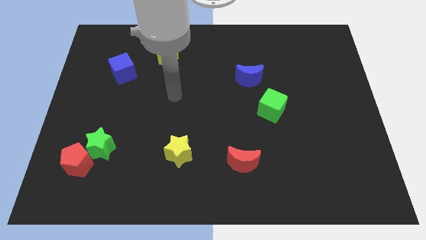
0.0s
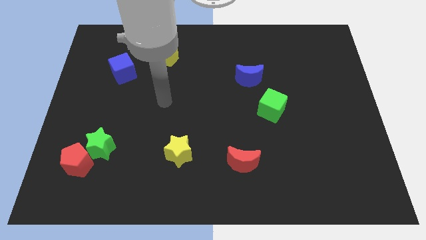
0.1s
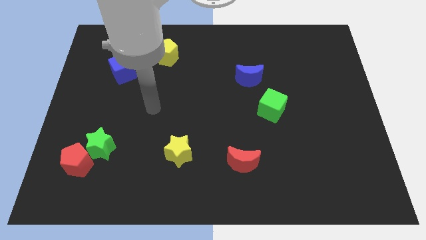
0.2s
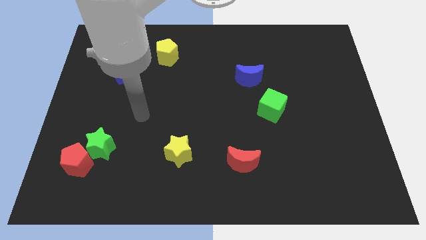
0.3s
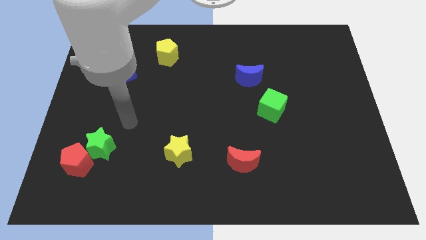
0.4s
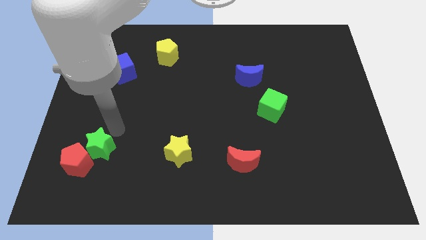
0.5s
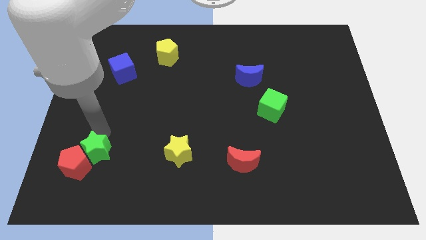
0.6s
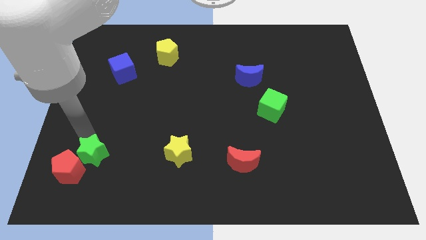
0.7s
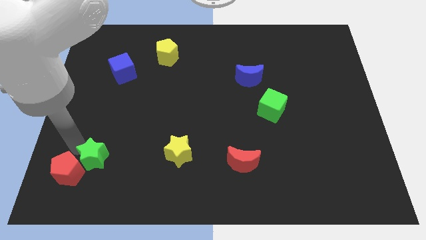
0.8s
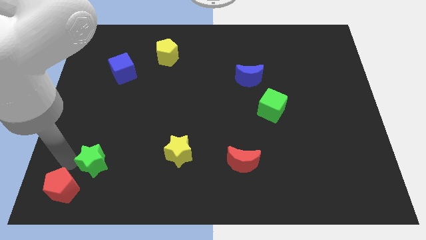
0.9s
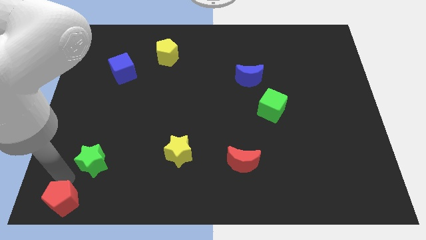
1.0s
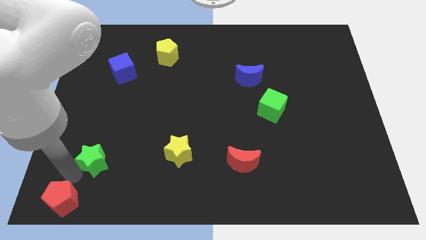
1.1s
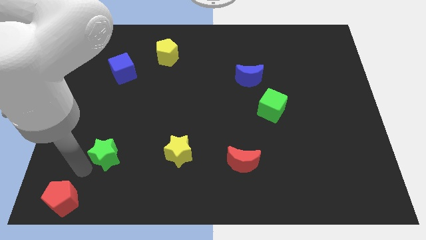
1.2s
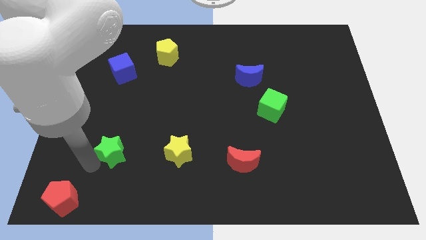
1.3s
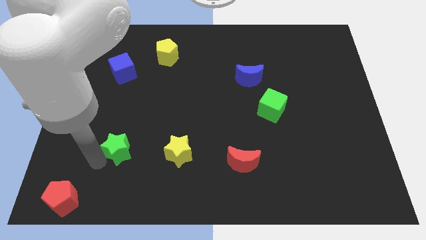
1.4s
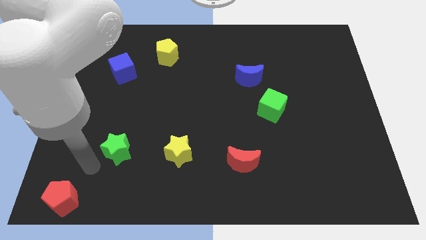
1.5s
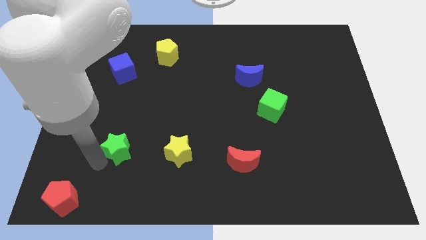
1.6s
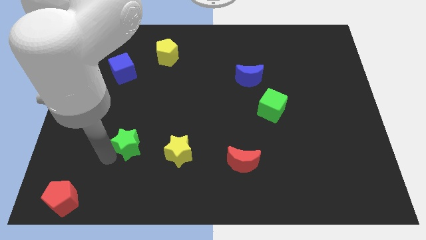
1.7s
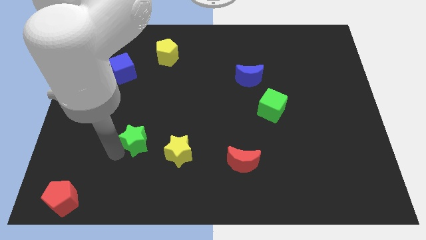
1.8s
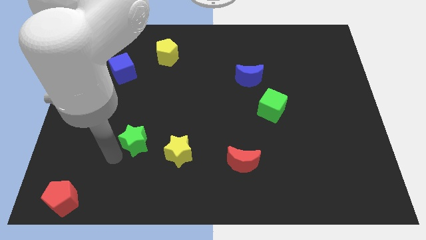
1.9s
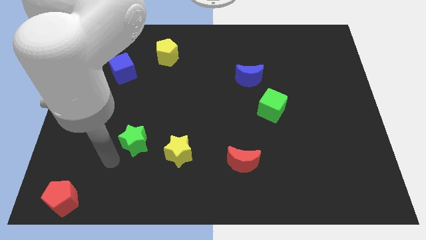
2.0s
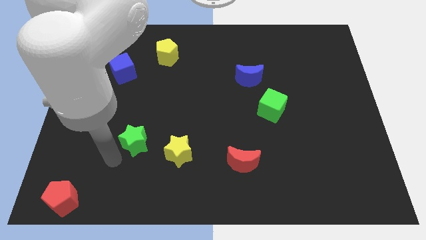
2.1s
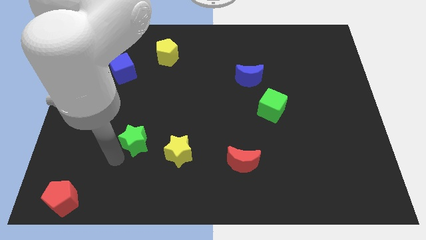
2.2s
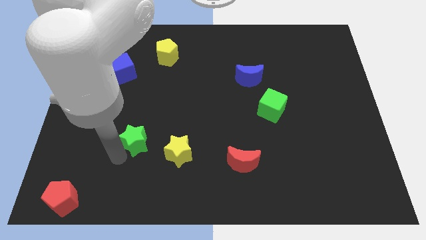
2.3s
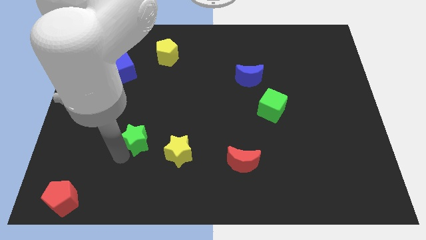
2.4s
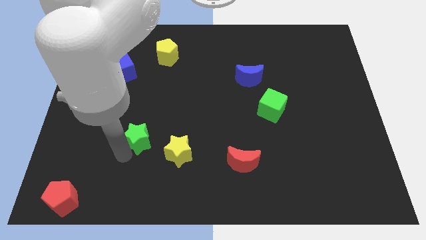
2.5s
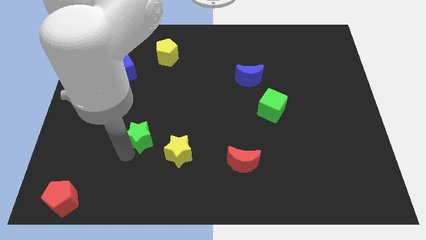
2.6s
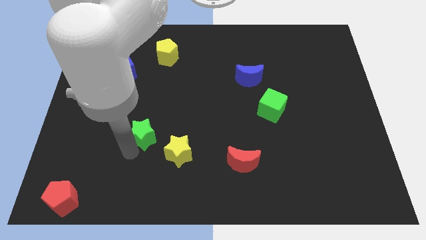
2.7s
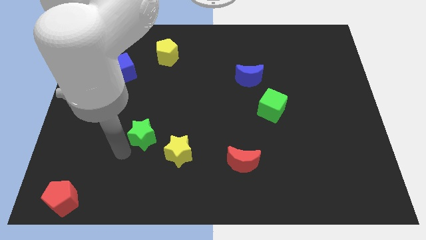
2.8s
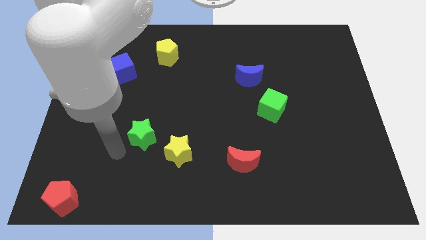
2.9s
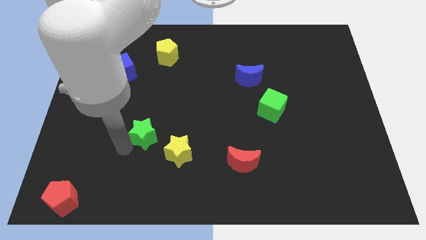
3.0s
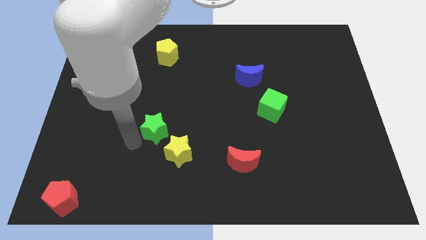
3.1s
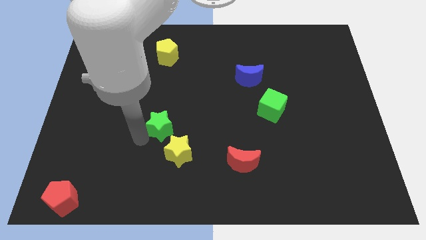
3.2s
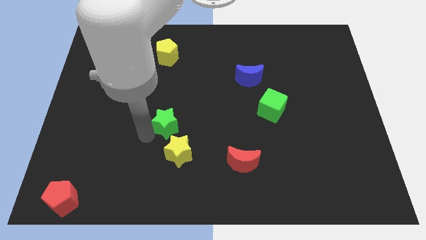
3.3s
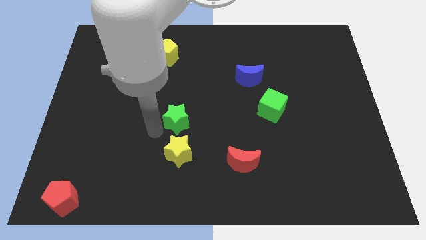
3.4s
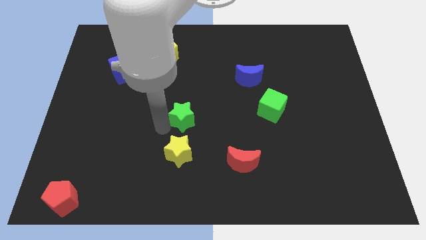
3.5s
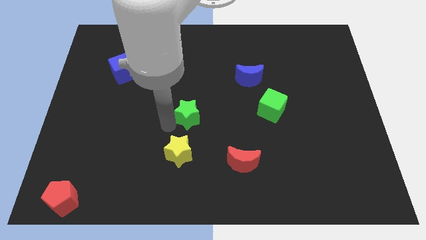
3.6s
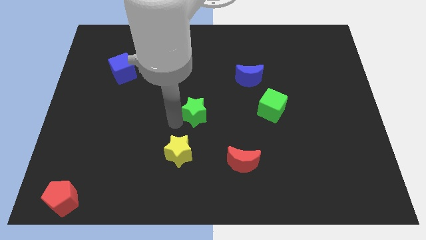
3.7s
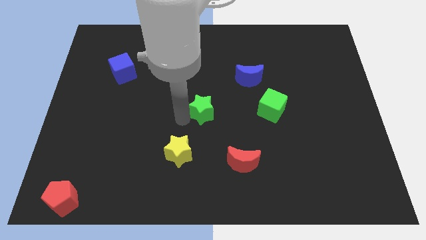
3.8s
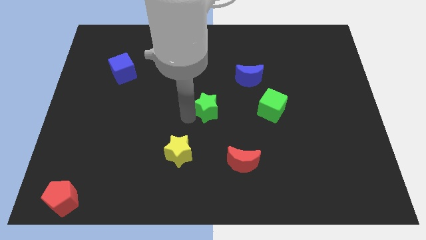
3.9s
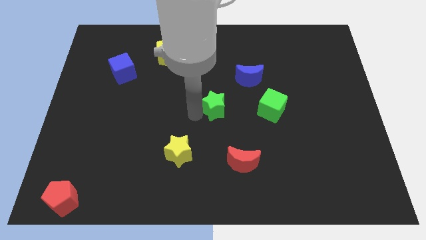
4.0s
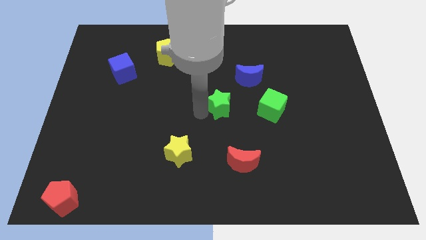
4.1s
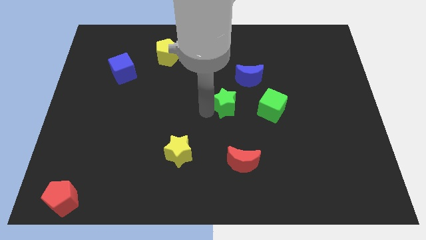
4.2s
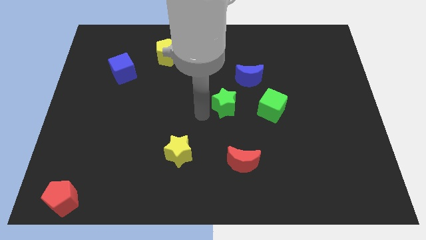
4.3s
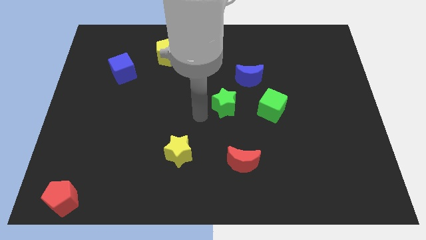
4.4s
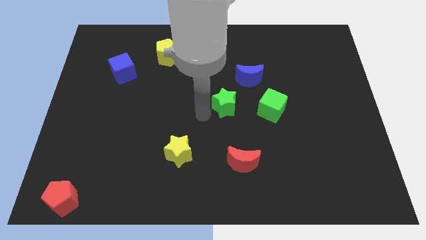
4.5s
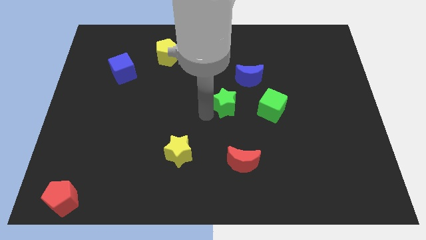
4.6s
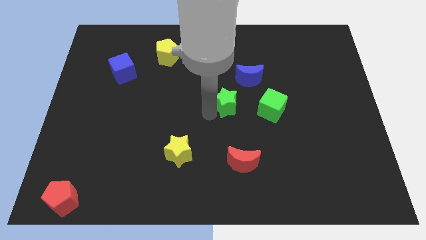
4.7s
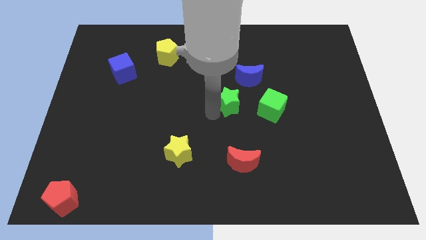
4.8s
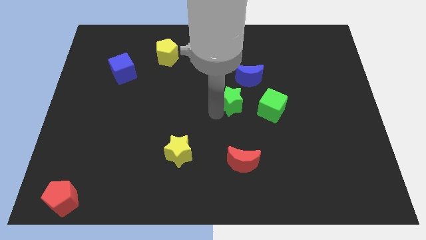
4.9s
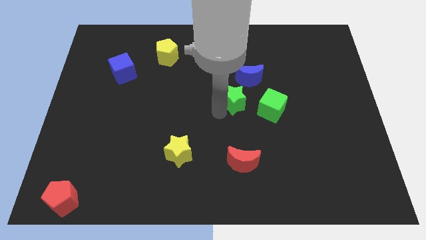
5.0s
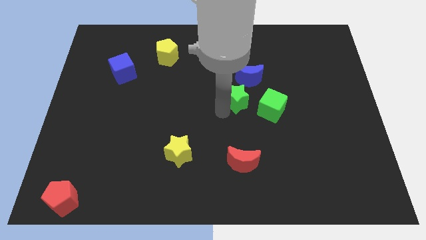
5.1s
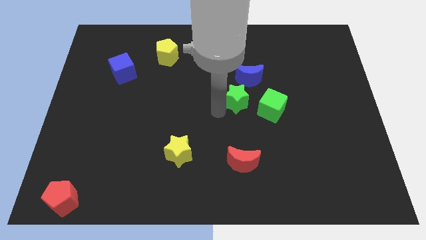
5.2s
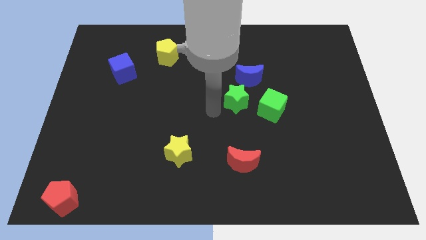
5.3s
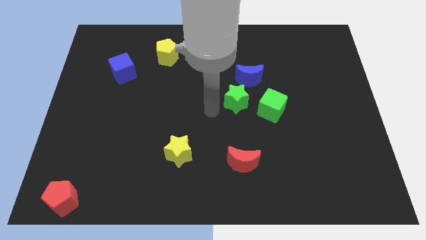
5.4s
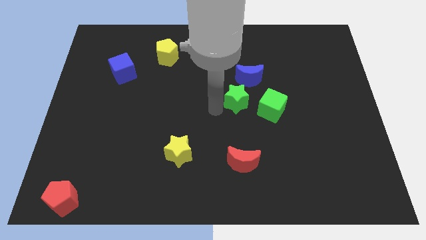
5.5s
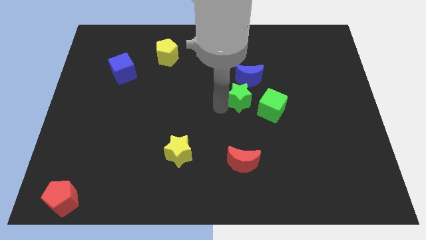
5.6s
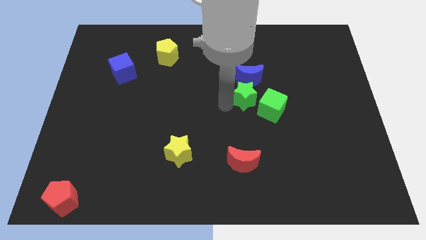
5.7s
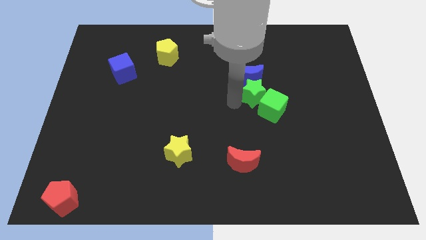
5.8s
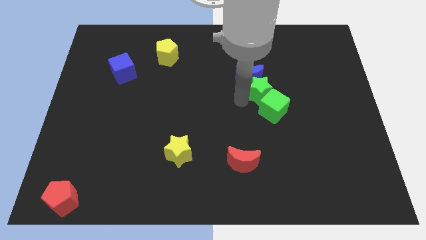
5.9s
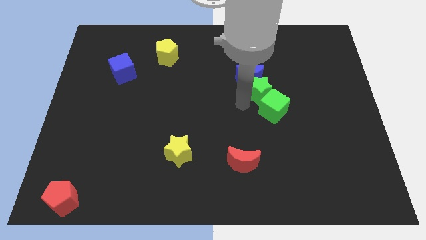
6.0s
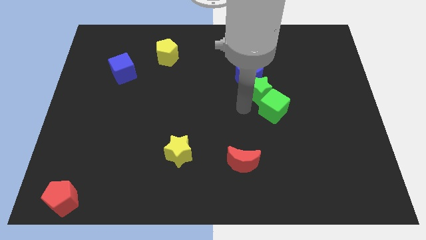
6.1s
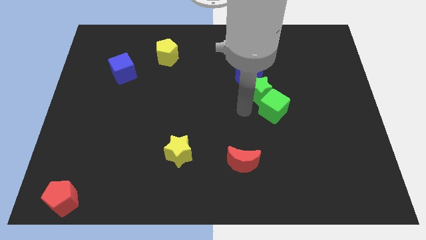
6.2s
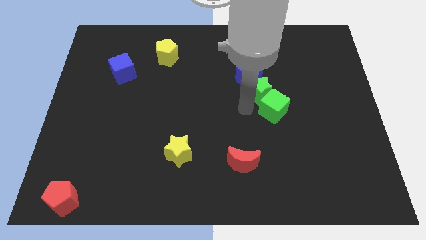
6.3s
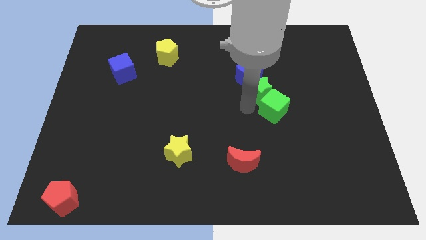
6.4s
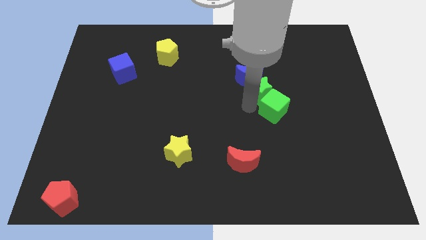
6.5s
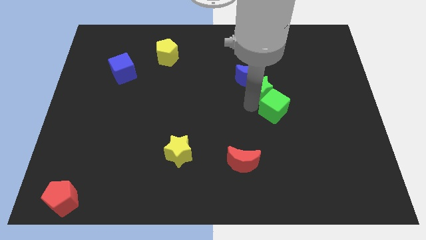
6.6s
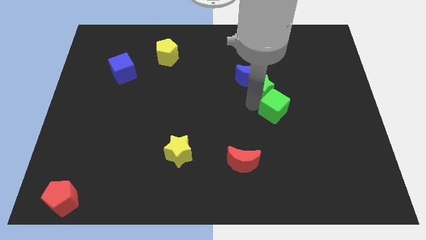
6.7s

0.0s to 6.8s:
push the green star to the right side of the blue moon

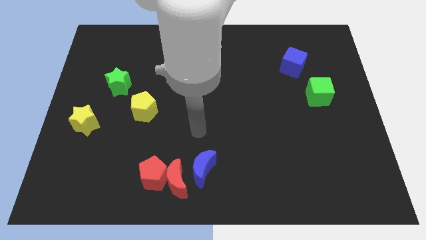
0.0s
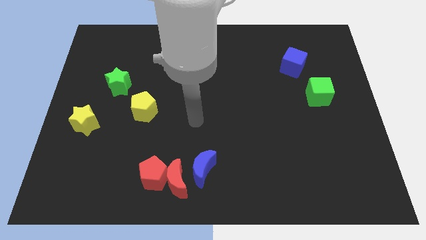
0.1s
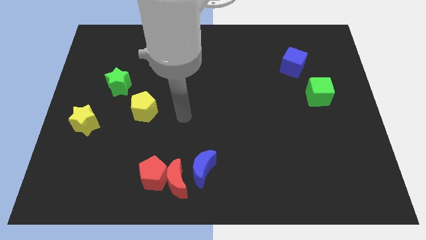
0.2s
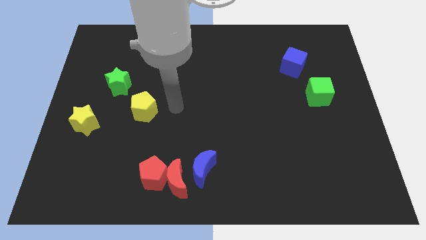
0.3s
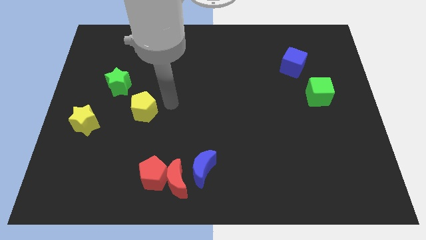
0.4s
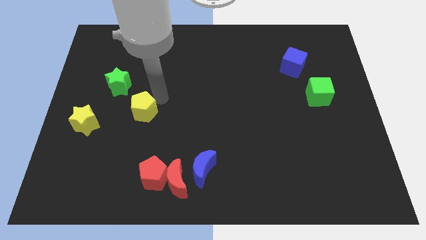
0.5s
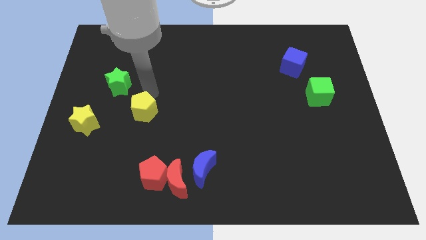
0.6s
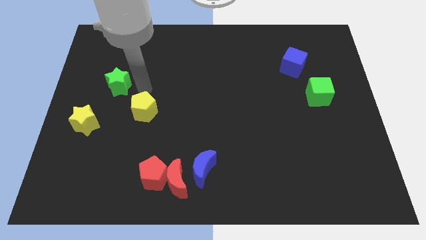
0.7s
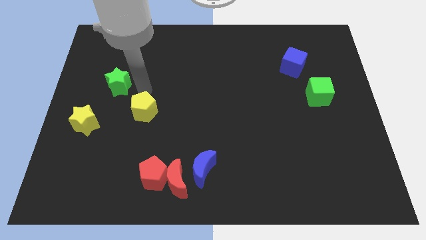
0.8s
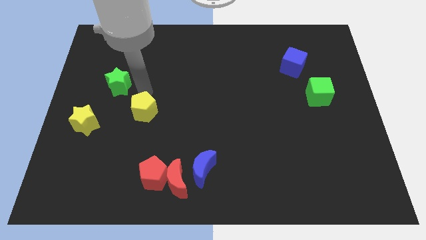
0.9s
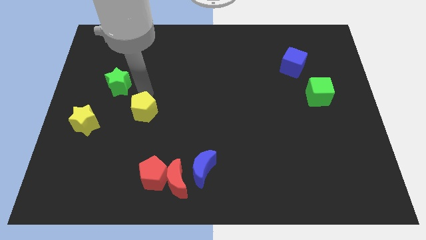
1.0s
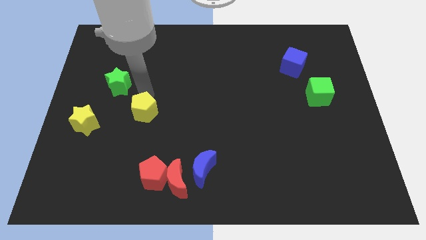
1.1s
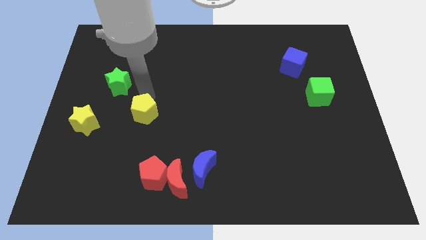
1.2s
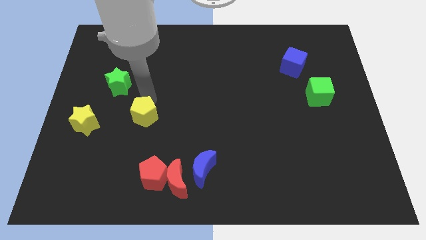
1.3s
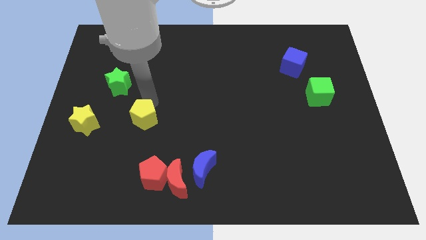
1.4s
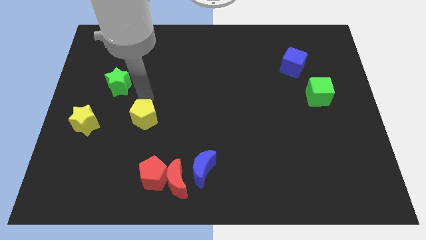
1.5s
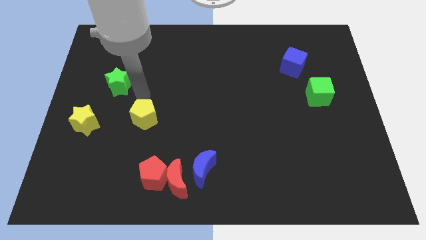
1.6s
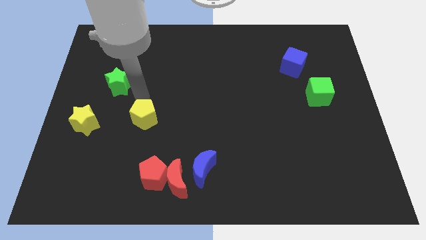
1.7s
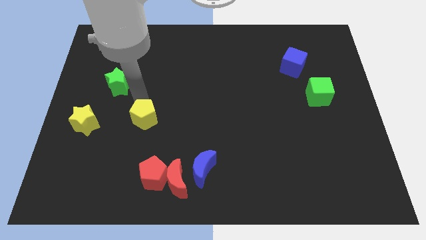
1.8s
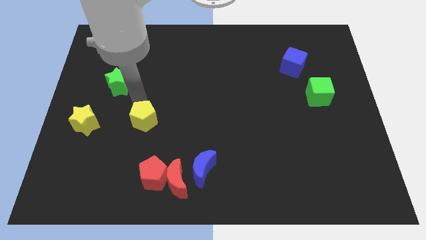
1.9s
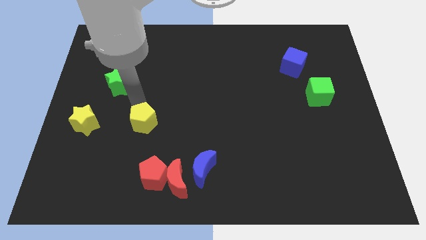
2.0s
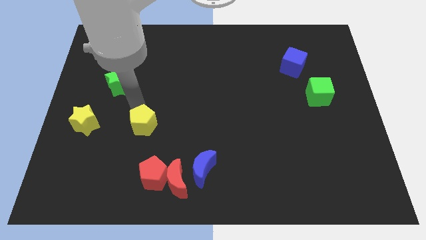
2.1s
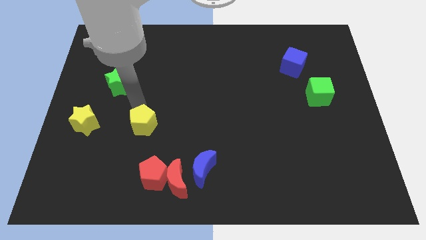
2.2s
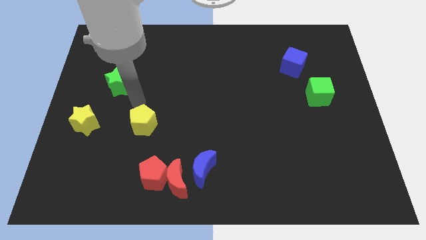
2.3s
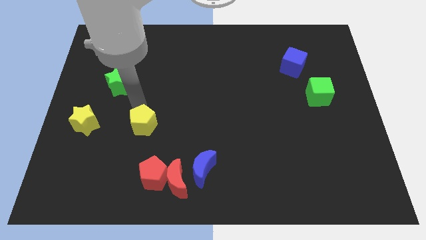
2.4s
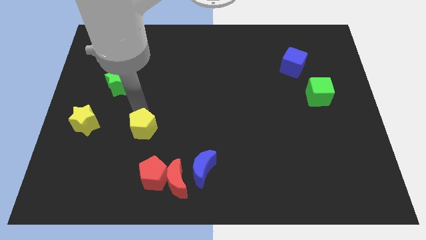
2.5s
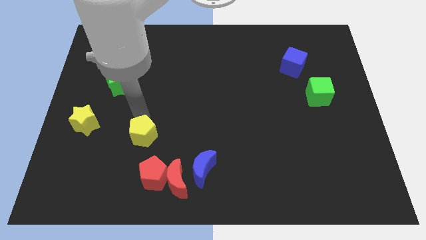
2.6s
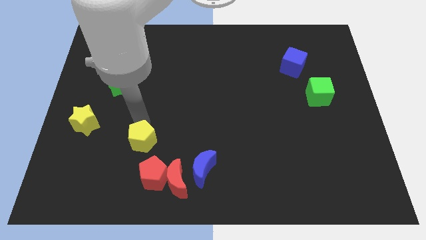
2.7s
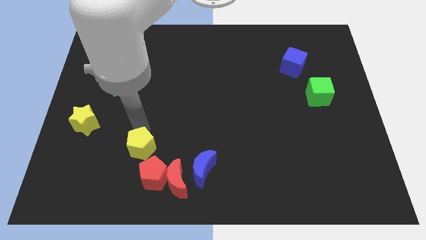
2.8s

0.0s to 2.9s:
push the yellow pentagon to the top left side of the red moon
